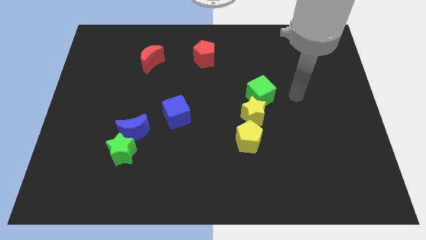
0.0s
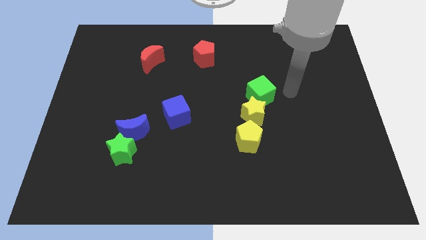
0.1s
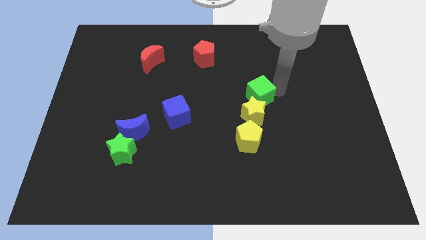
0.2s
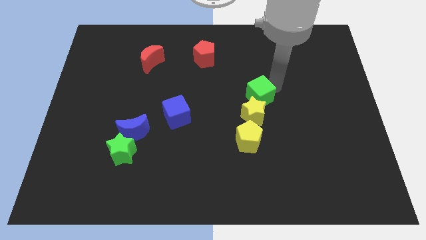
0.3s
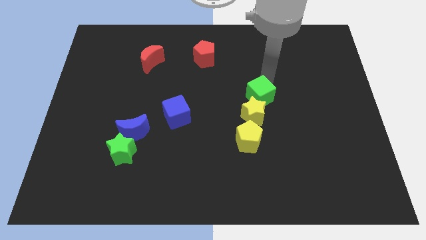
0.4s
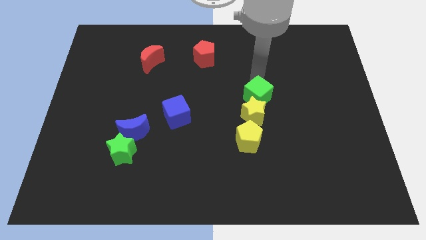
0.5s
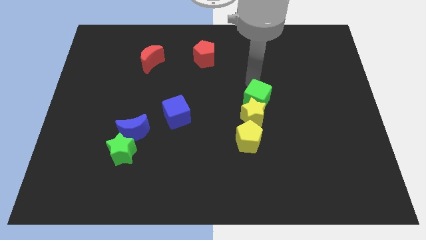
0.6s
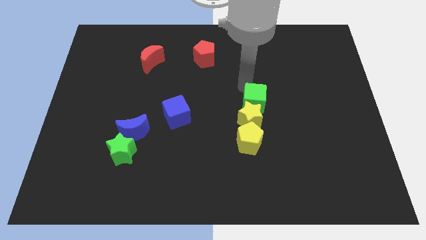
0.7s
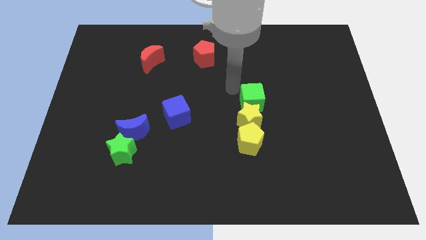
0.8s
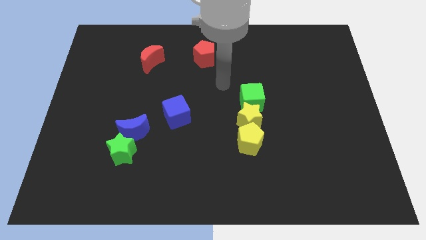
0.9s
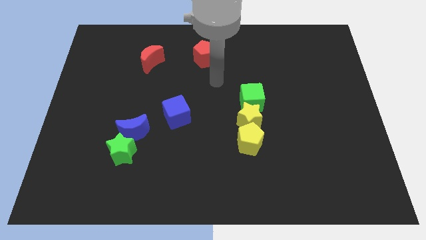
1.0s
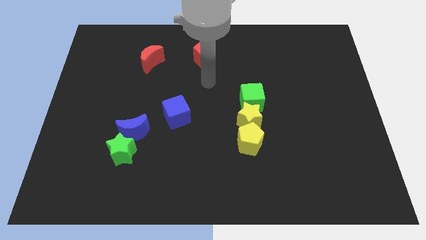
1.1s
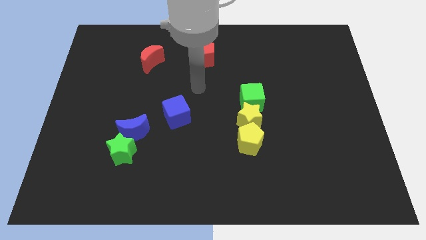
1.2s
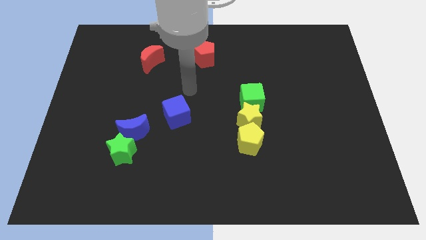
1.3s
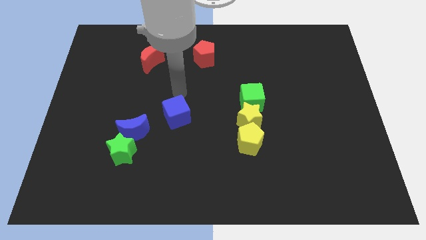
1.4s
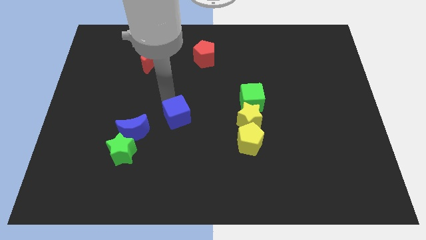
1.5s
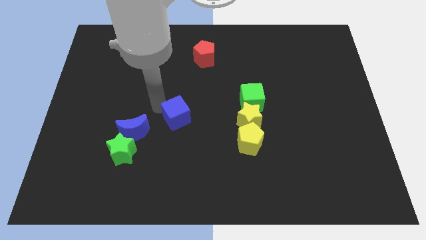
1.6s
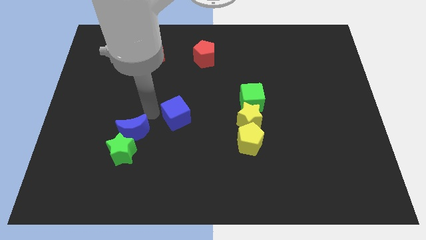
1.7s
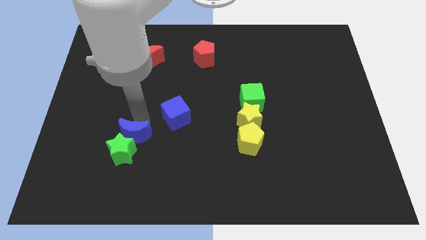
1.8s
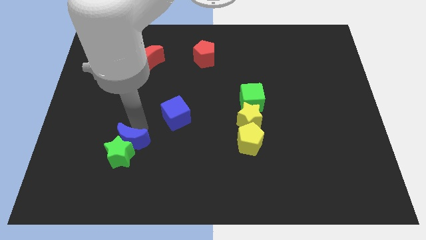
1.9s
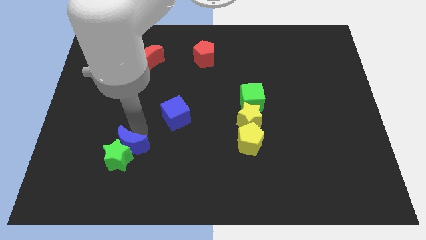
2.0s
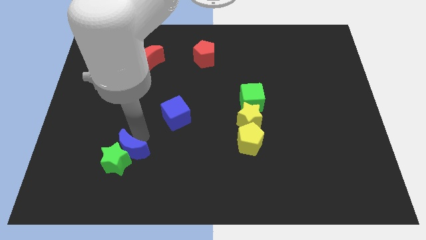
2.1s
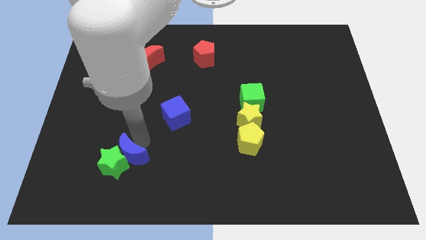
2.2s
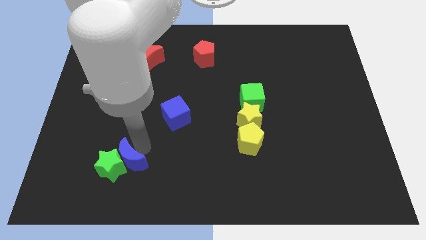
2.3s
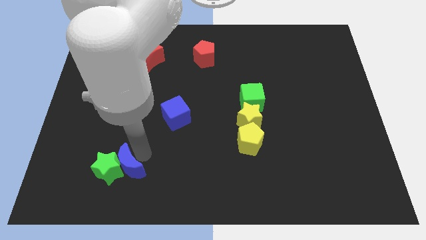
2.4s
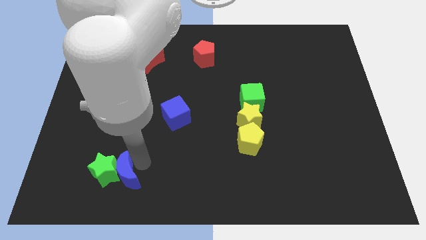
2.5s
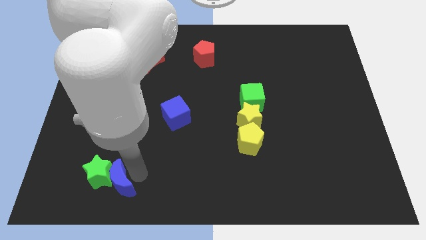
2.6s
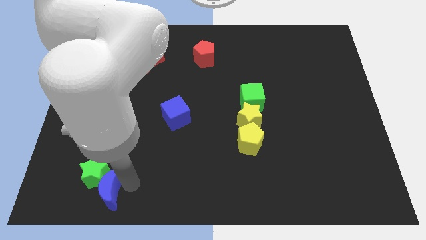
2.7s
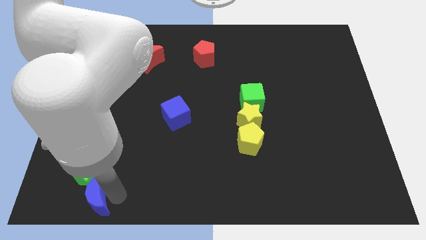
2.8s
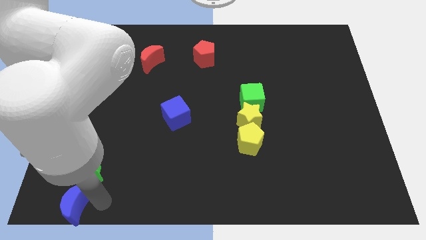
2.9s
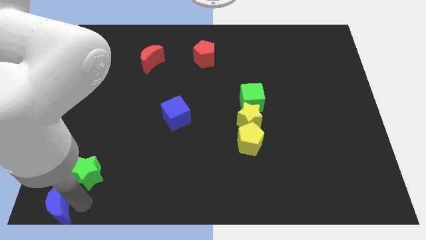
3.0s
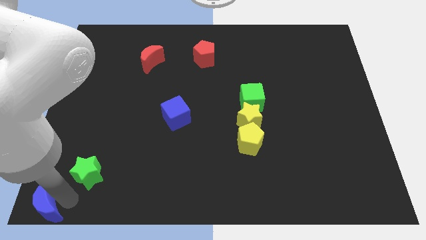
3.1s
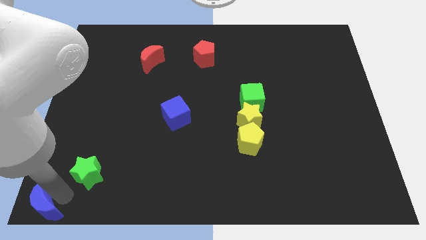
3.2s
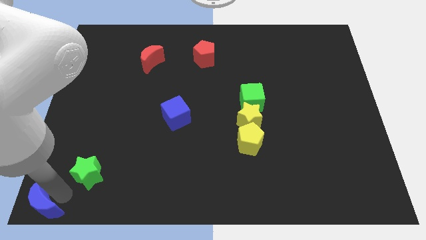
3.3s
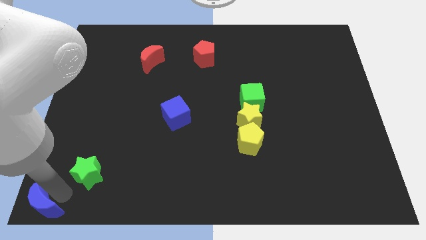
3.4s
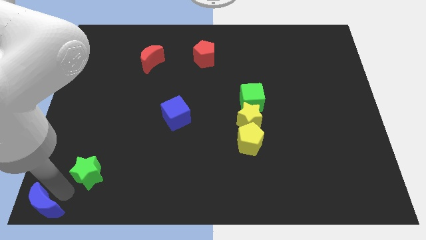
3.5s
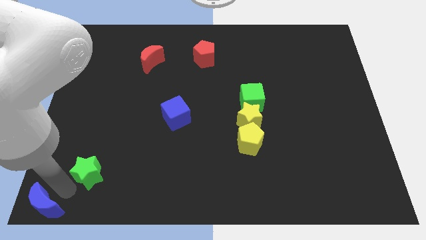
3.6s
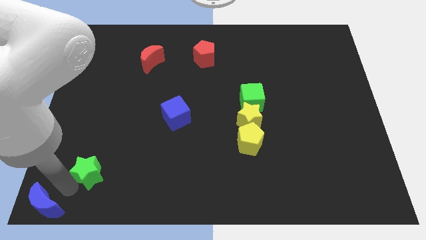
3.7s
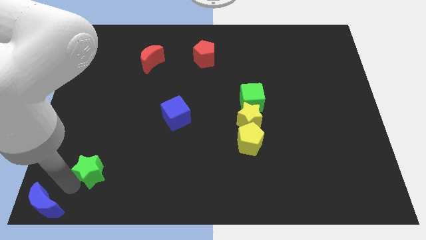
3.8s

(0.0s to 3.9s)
separate the green star from the blue moon

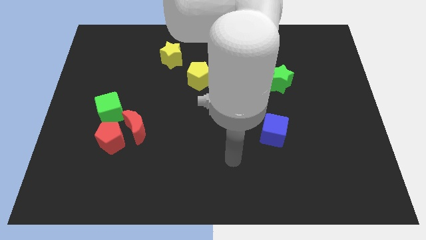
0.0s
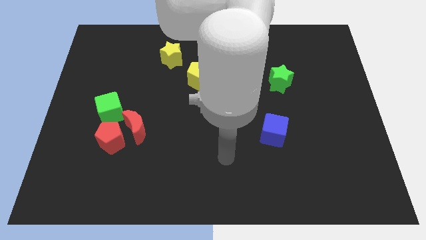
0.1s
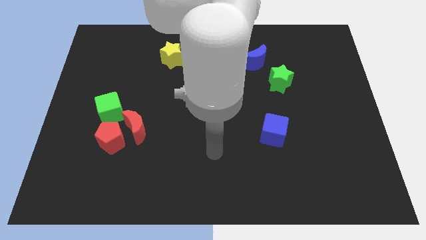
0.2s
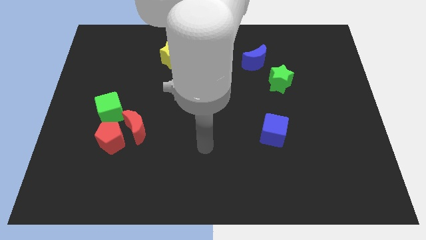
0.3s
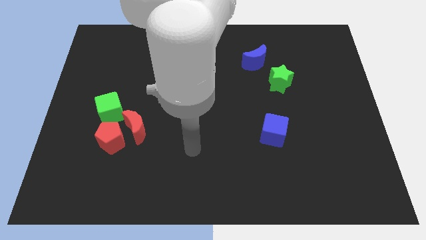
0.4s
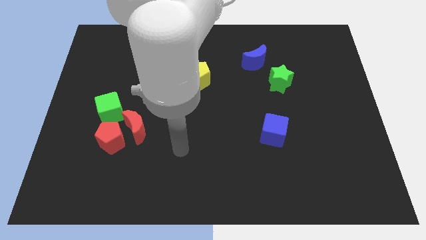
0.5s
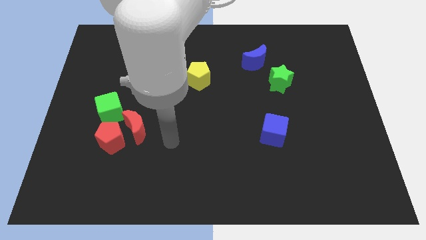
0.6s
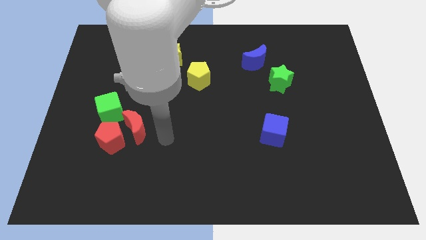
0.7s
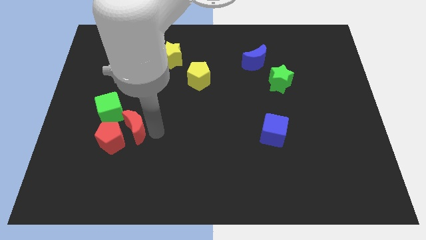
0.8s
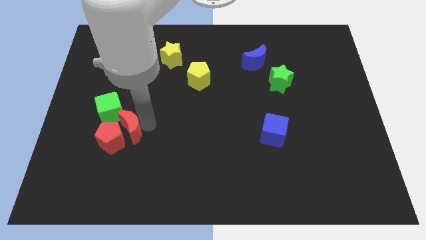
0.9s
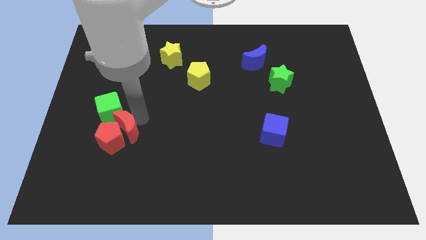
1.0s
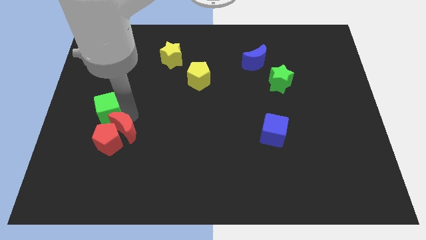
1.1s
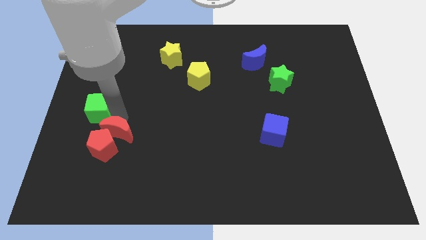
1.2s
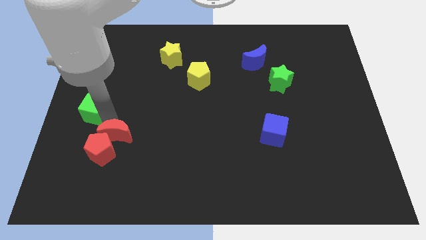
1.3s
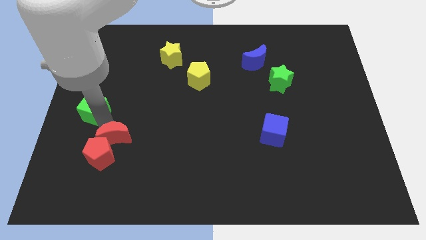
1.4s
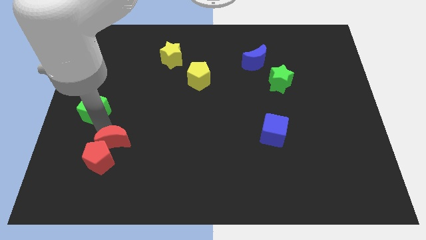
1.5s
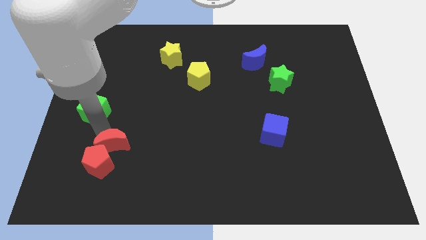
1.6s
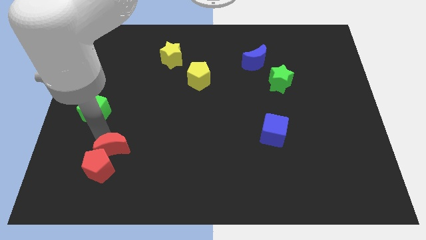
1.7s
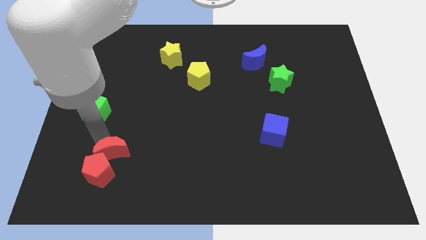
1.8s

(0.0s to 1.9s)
move the red pentagon away from the red moon and green cube

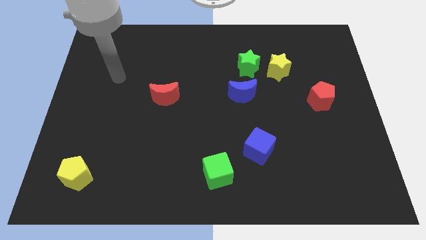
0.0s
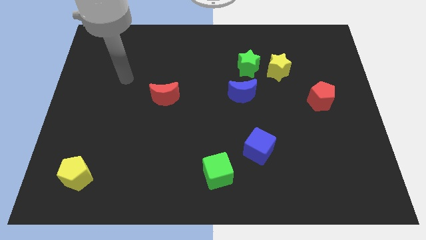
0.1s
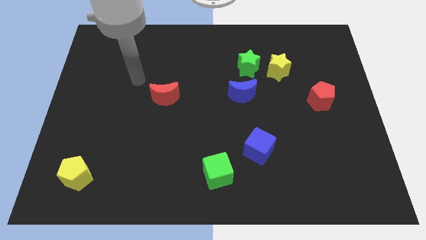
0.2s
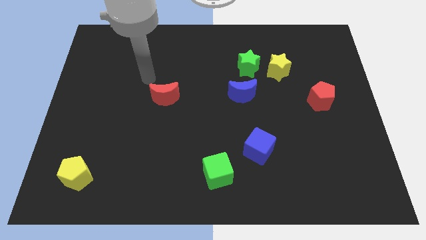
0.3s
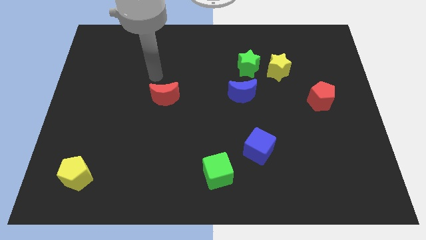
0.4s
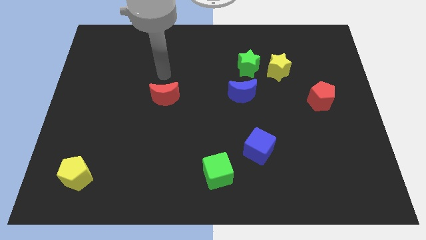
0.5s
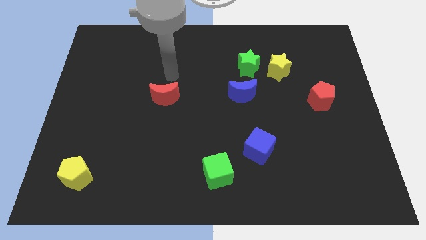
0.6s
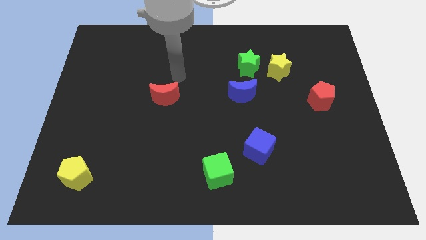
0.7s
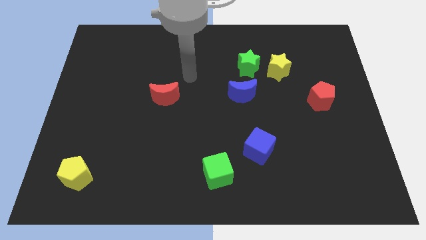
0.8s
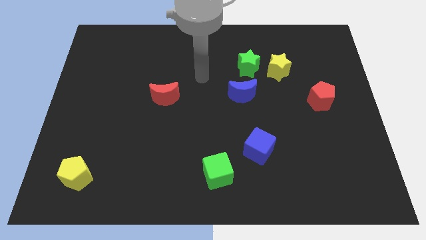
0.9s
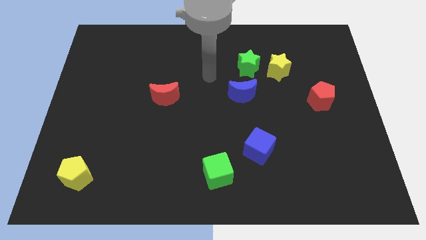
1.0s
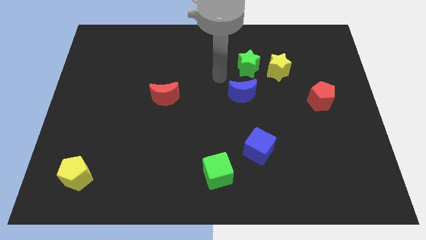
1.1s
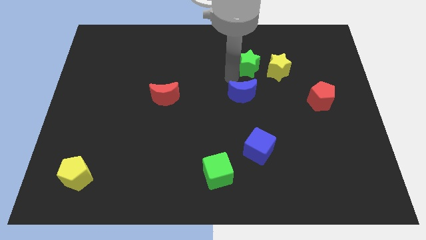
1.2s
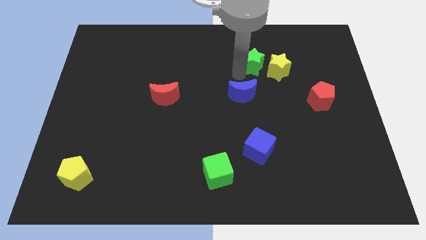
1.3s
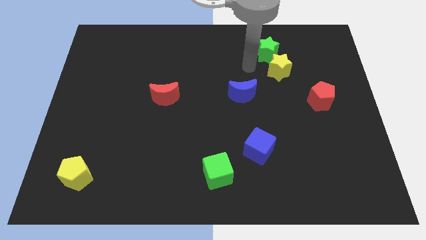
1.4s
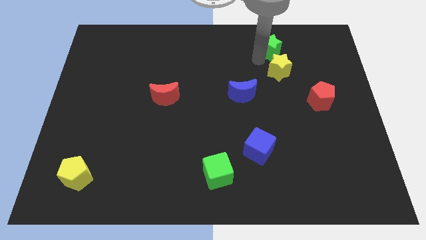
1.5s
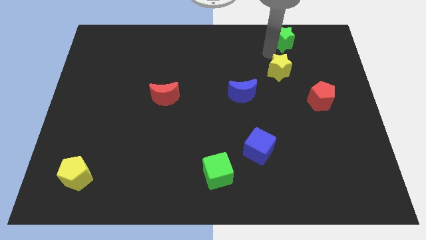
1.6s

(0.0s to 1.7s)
pull the yellow star apart from the green star

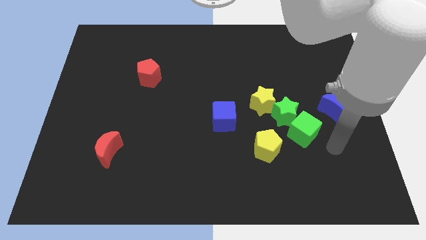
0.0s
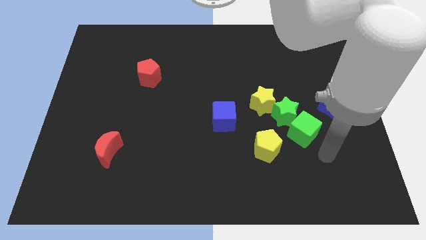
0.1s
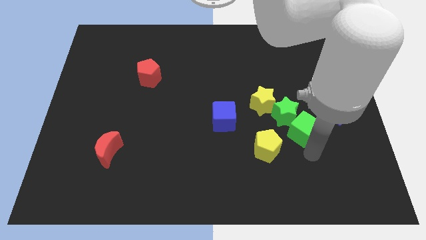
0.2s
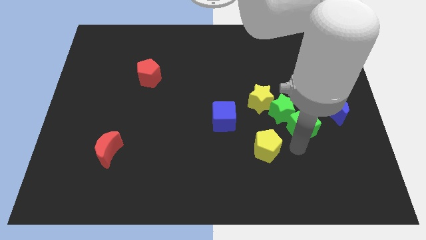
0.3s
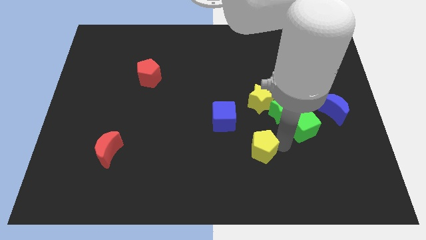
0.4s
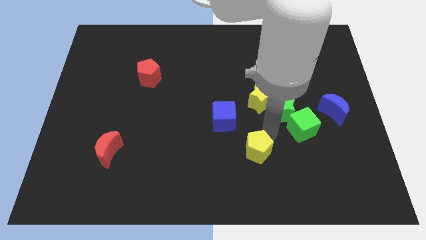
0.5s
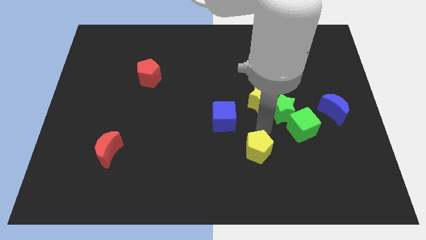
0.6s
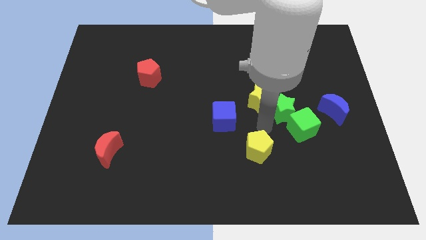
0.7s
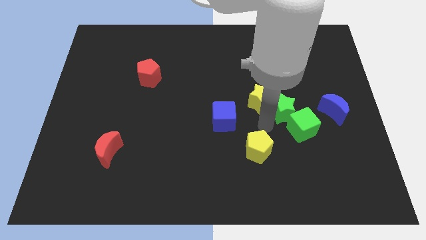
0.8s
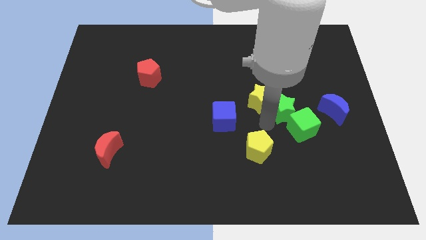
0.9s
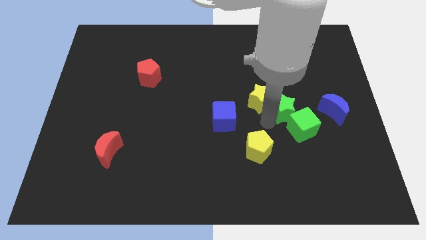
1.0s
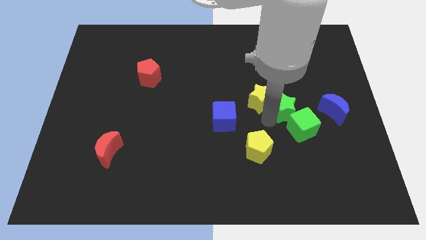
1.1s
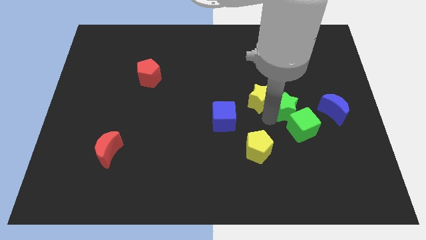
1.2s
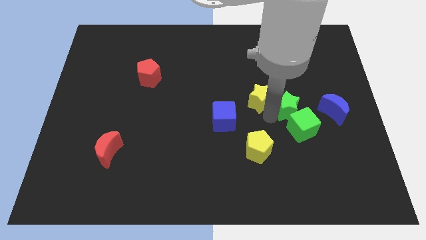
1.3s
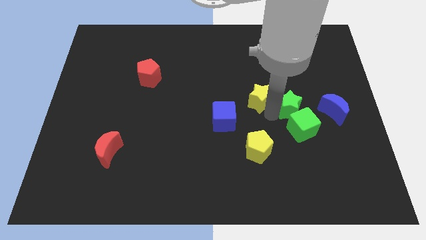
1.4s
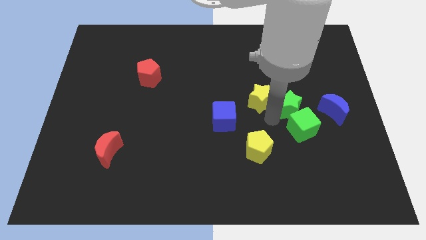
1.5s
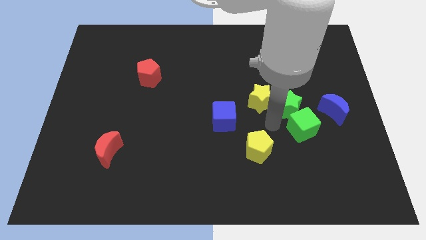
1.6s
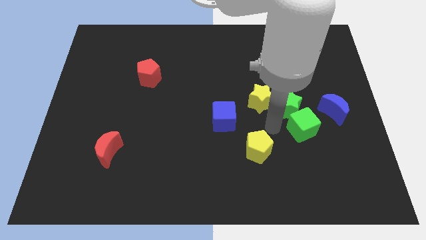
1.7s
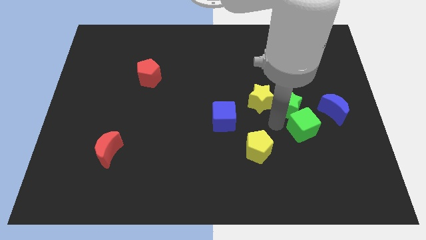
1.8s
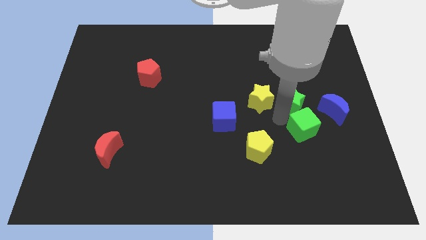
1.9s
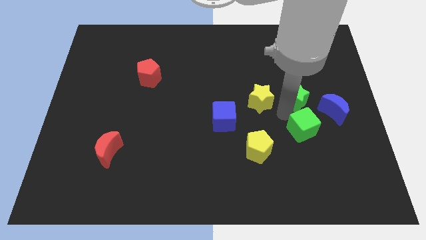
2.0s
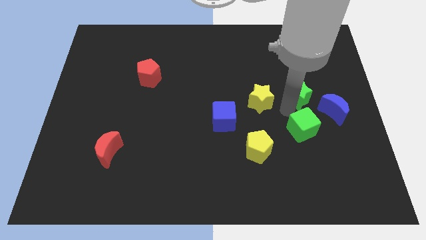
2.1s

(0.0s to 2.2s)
move the green star away from the clump
